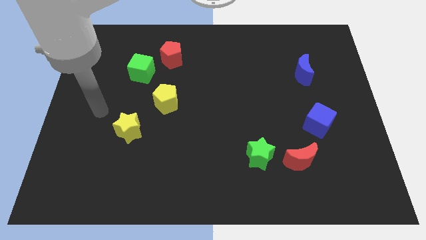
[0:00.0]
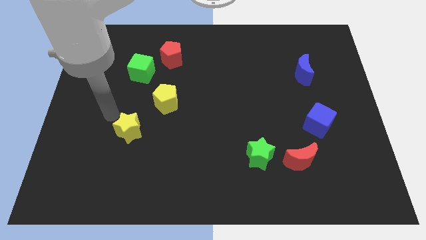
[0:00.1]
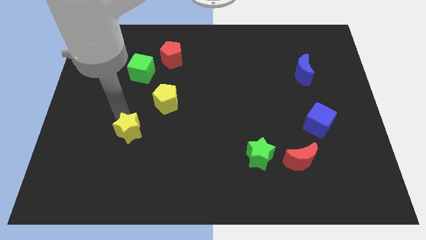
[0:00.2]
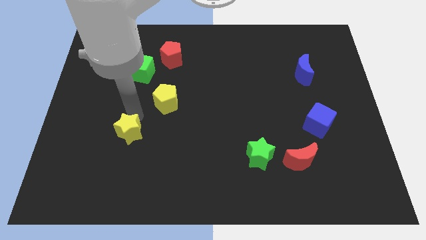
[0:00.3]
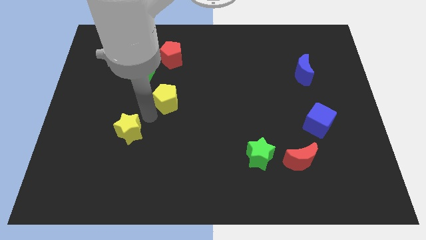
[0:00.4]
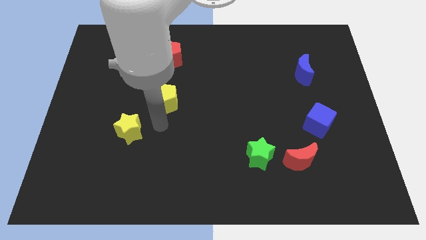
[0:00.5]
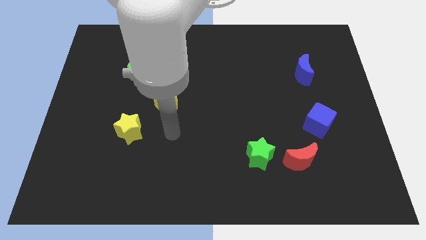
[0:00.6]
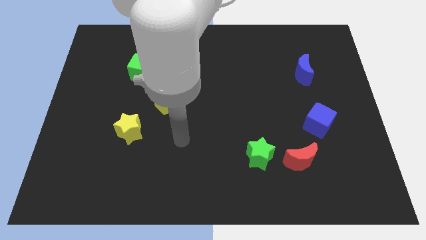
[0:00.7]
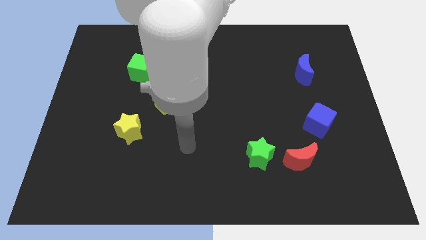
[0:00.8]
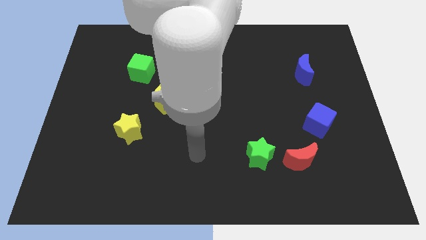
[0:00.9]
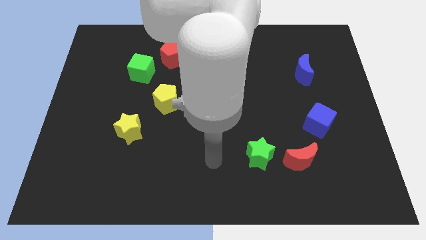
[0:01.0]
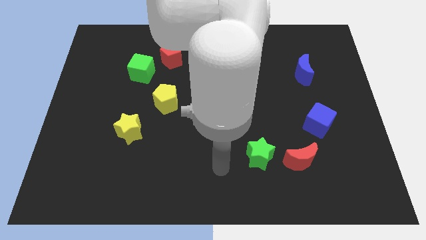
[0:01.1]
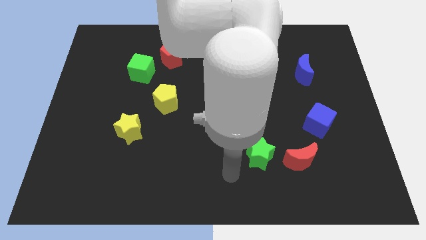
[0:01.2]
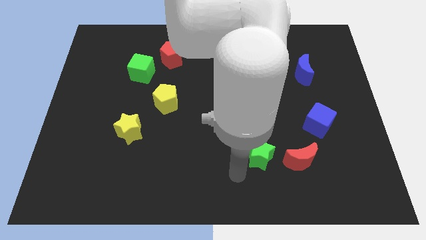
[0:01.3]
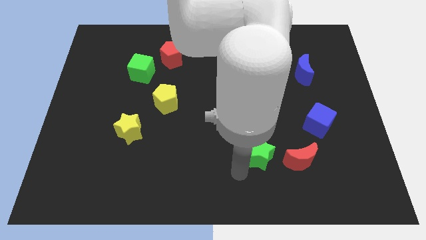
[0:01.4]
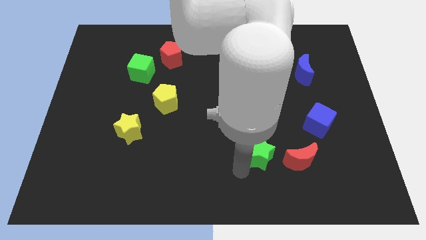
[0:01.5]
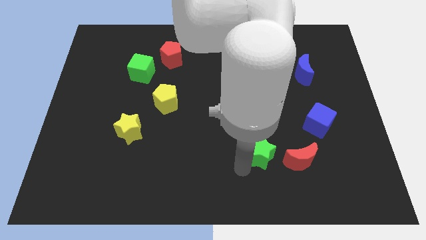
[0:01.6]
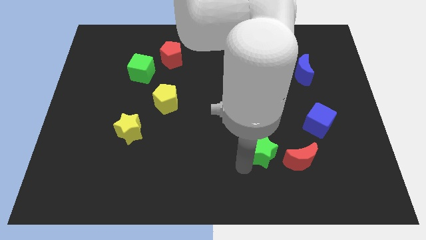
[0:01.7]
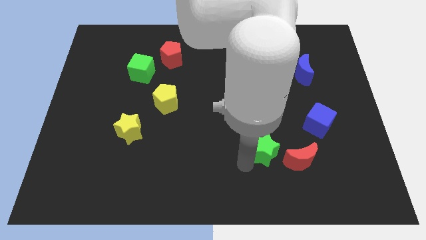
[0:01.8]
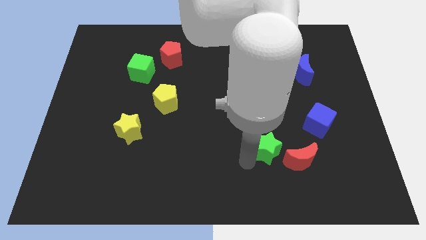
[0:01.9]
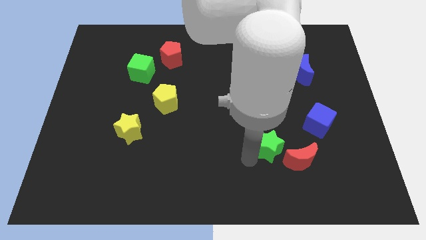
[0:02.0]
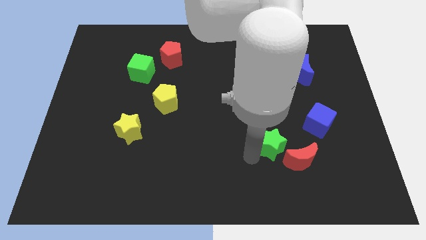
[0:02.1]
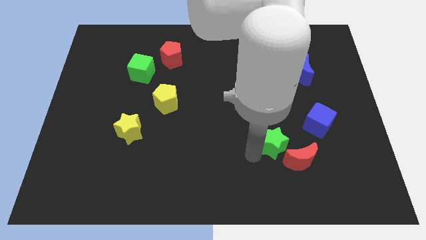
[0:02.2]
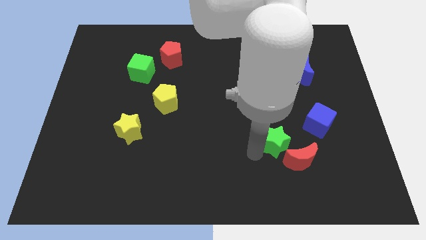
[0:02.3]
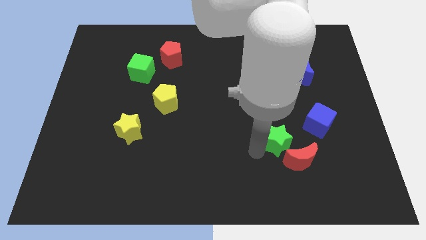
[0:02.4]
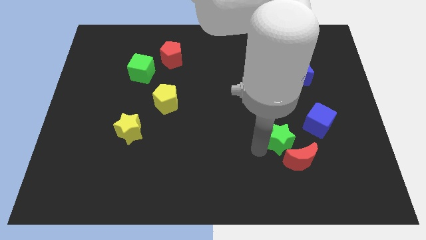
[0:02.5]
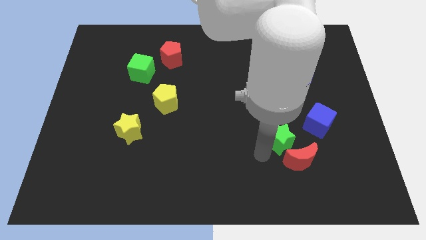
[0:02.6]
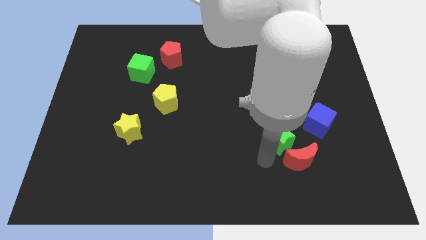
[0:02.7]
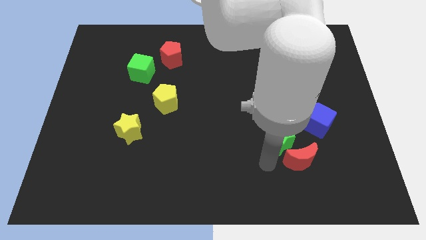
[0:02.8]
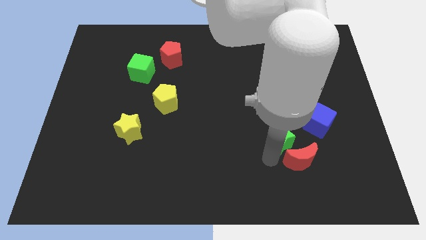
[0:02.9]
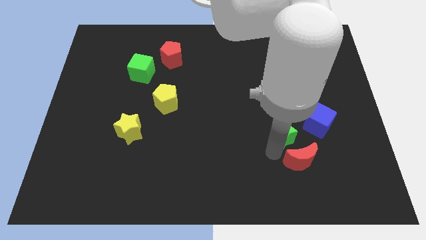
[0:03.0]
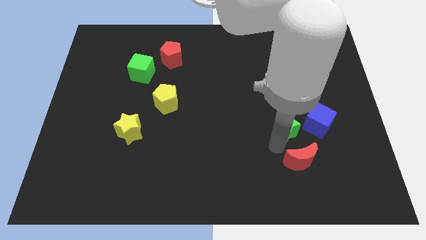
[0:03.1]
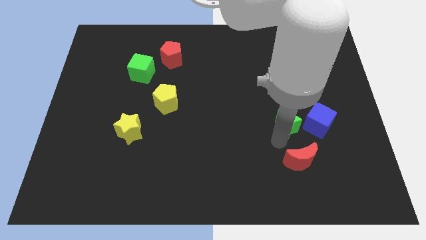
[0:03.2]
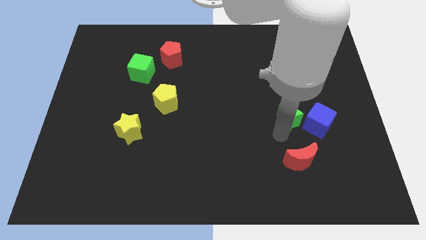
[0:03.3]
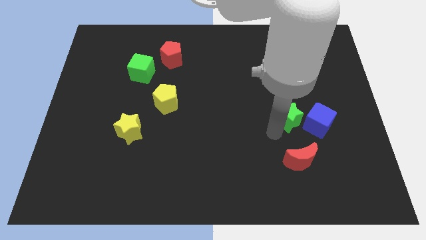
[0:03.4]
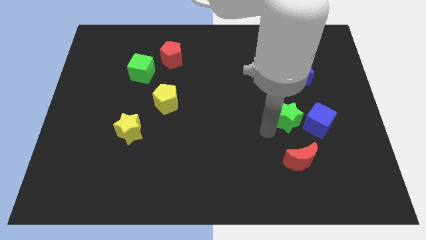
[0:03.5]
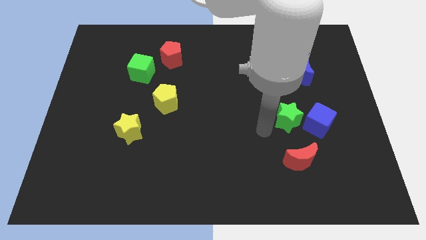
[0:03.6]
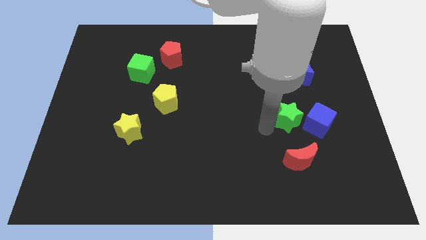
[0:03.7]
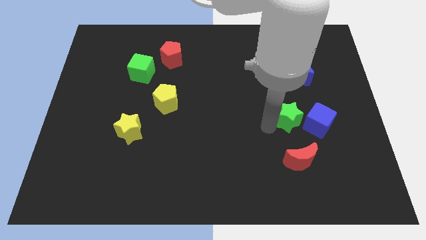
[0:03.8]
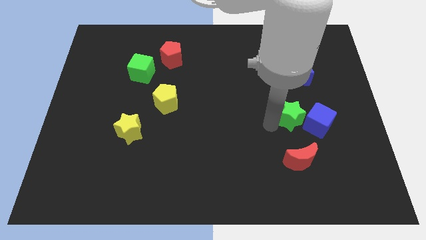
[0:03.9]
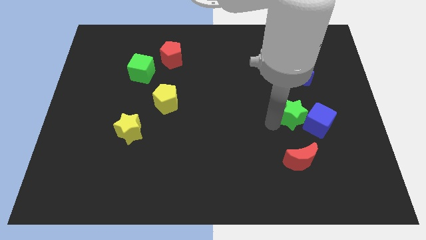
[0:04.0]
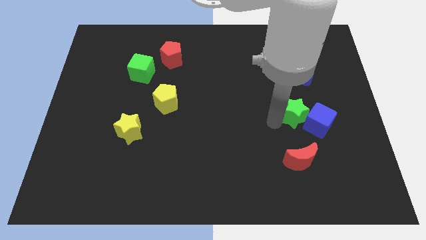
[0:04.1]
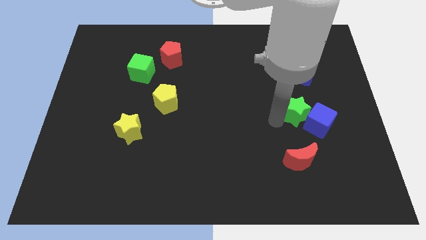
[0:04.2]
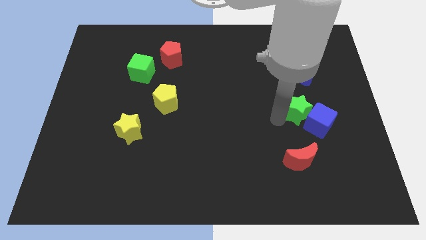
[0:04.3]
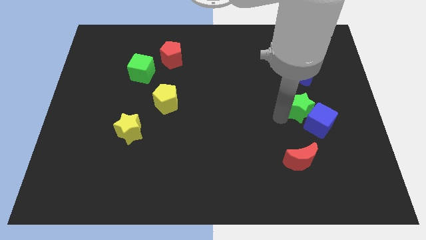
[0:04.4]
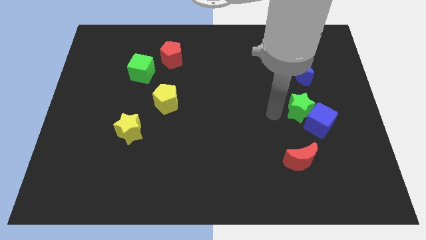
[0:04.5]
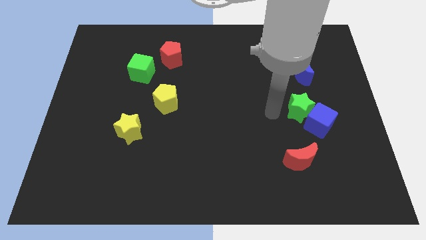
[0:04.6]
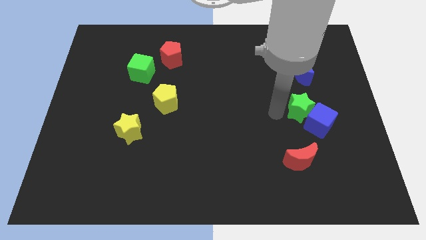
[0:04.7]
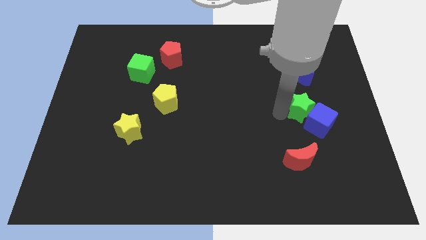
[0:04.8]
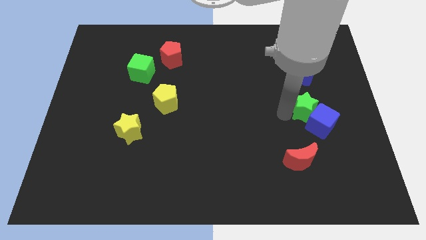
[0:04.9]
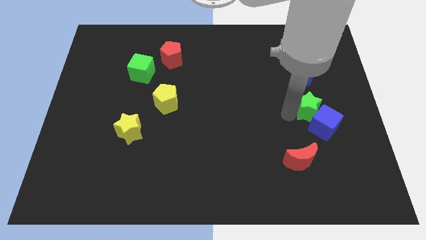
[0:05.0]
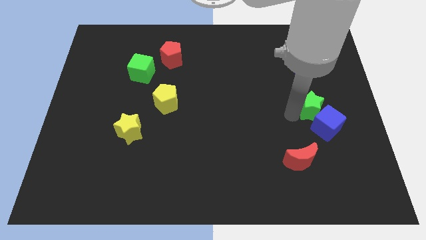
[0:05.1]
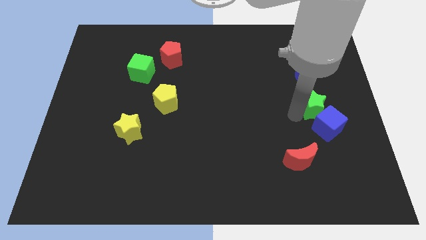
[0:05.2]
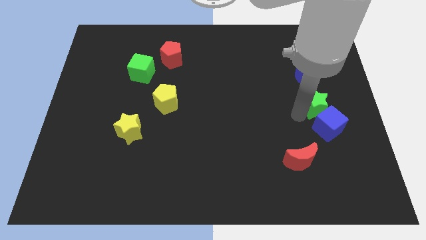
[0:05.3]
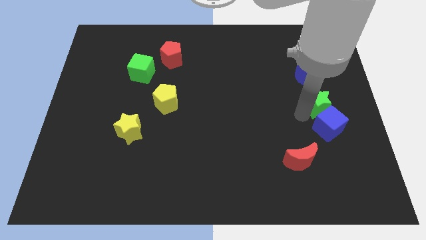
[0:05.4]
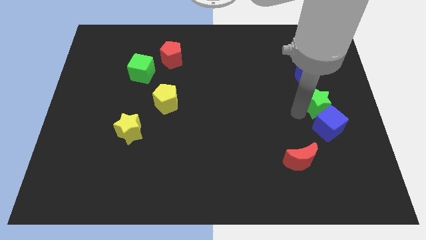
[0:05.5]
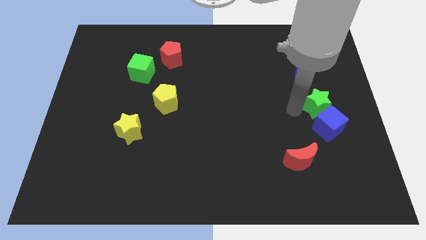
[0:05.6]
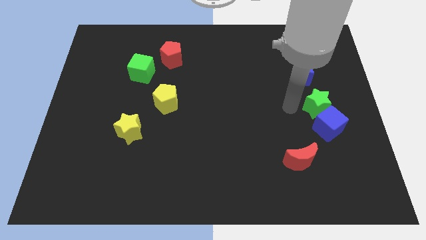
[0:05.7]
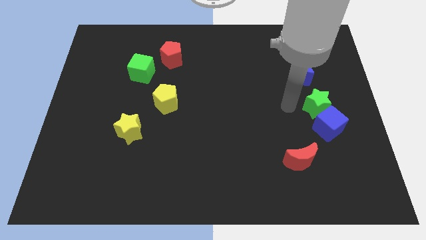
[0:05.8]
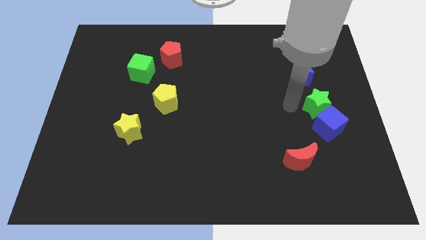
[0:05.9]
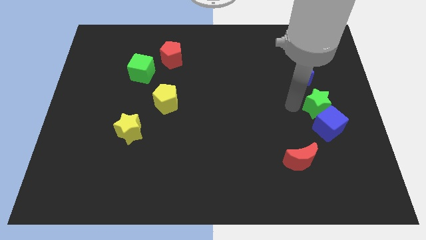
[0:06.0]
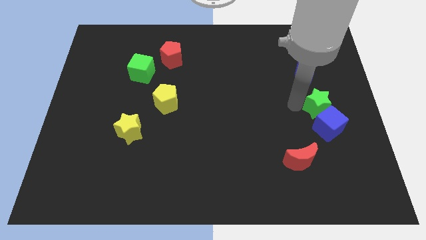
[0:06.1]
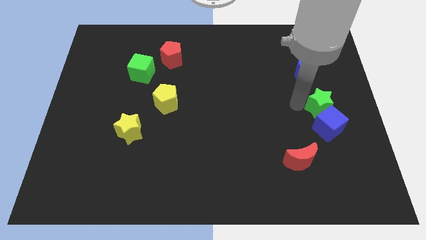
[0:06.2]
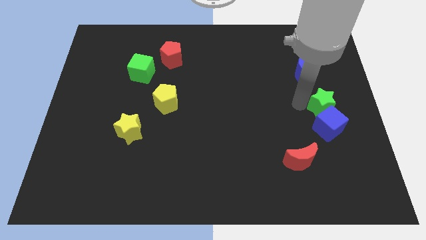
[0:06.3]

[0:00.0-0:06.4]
push the green star to the center right

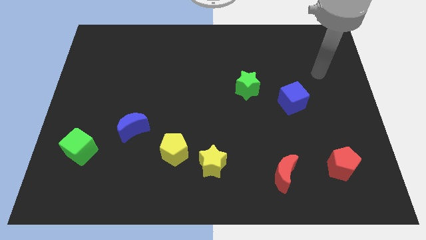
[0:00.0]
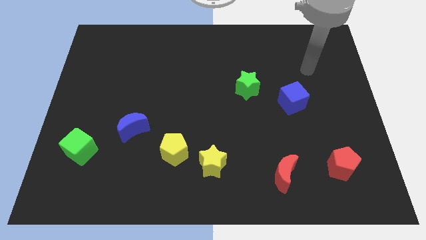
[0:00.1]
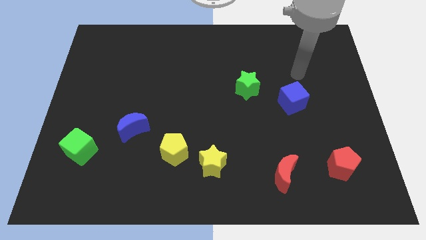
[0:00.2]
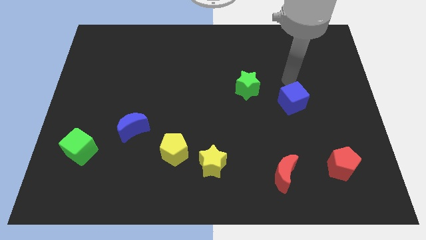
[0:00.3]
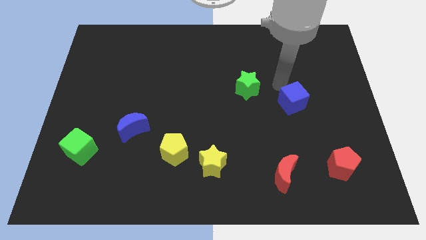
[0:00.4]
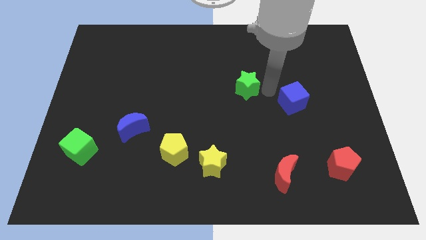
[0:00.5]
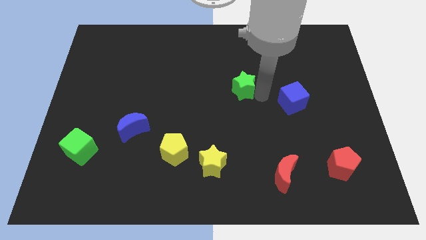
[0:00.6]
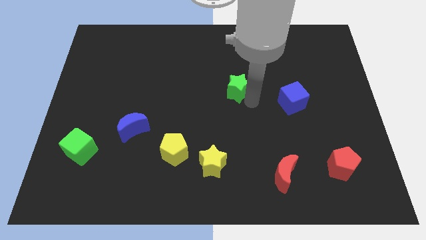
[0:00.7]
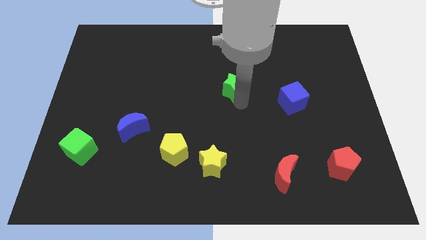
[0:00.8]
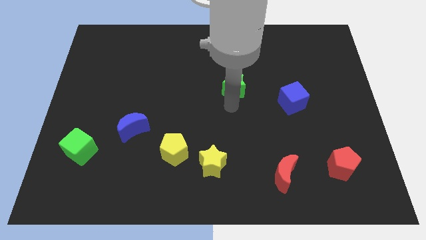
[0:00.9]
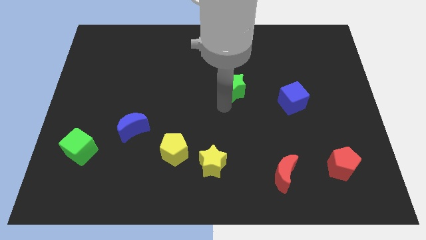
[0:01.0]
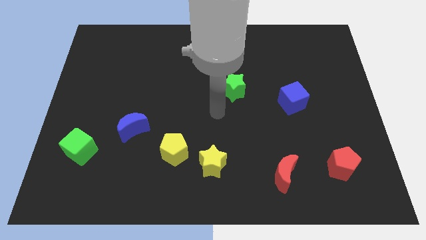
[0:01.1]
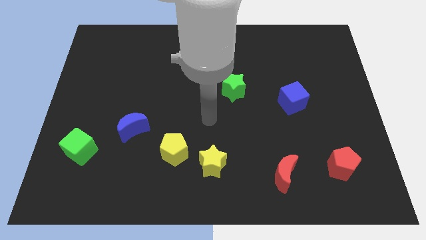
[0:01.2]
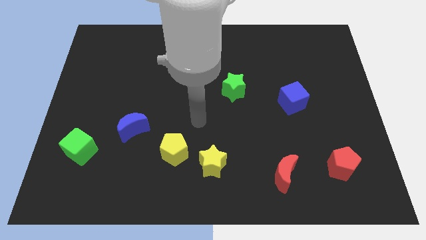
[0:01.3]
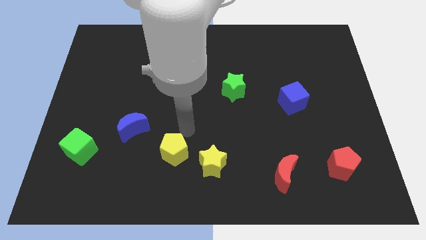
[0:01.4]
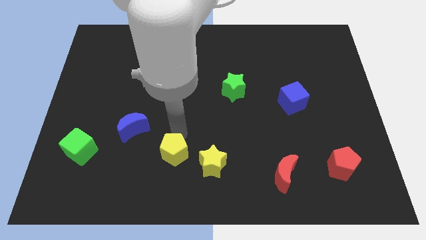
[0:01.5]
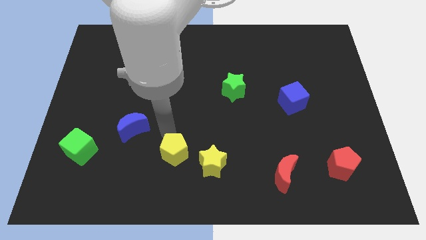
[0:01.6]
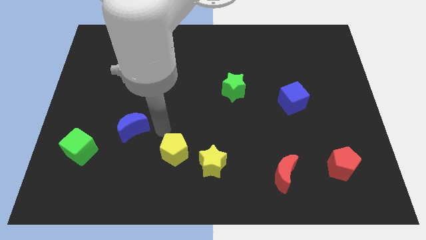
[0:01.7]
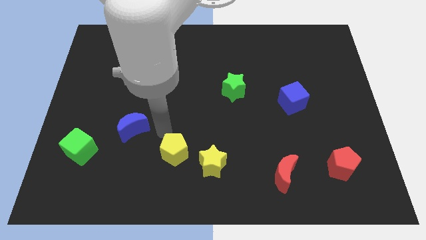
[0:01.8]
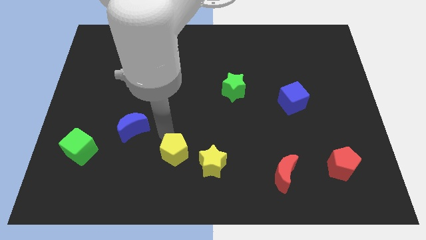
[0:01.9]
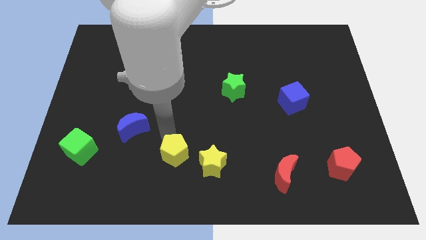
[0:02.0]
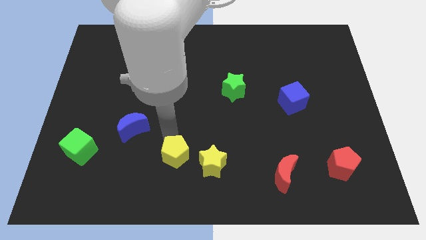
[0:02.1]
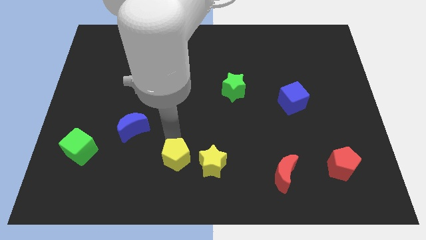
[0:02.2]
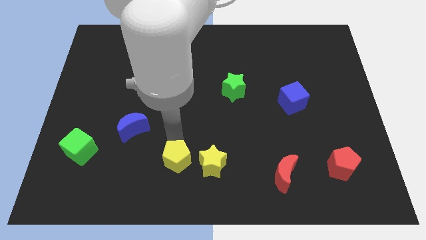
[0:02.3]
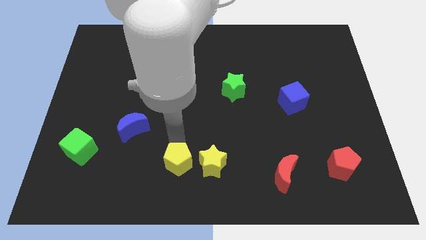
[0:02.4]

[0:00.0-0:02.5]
push the yellow pentagon to the bottom side
